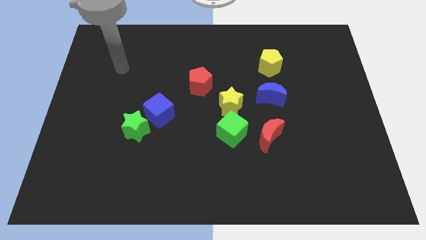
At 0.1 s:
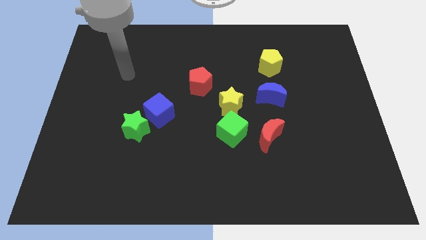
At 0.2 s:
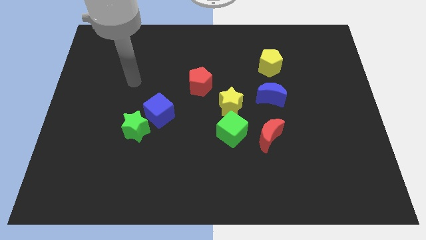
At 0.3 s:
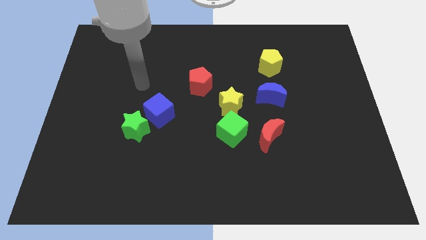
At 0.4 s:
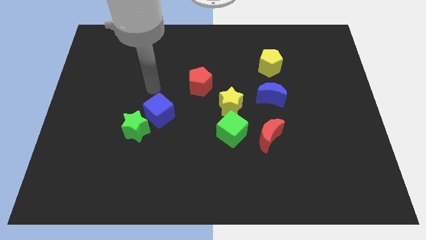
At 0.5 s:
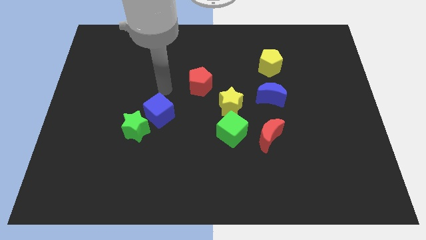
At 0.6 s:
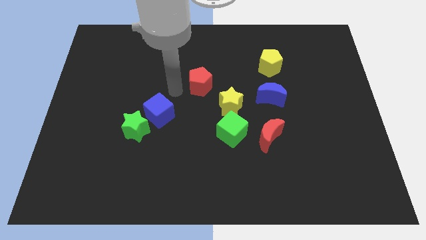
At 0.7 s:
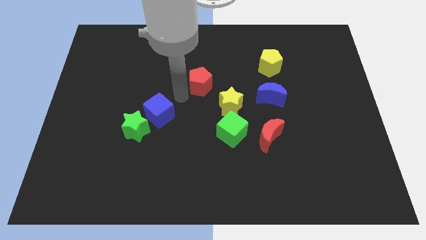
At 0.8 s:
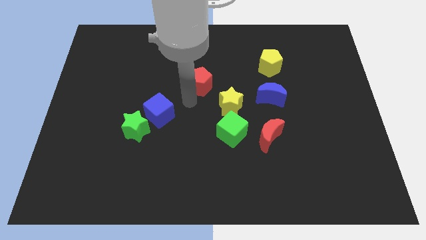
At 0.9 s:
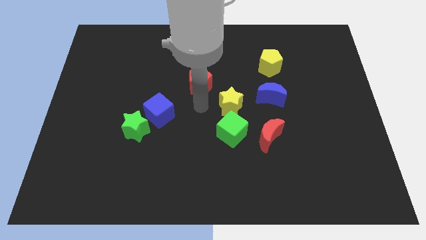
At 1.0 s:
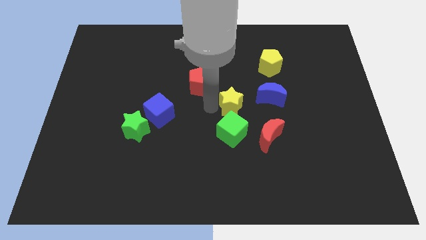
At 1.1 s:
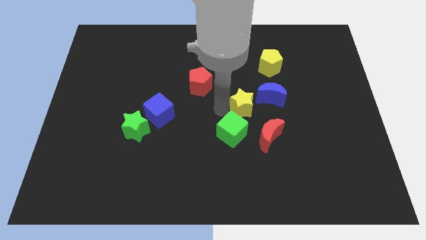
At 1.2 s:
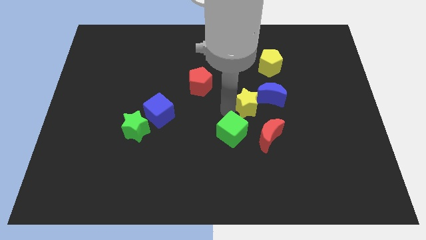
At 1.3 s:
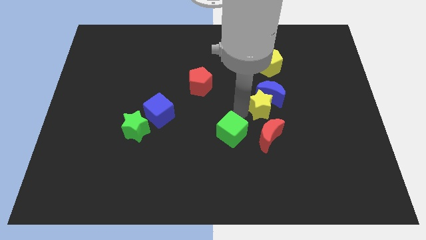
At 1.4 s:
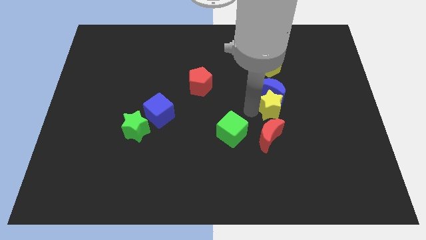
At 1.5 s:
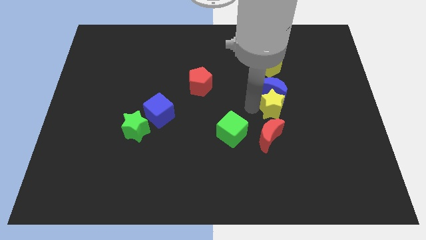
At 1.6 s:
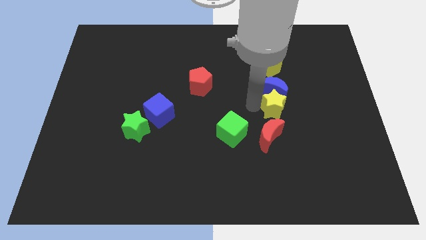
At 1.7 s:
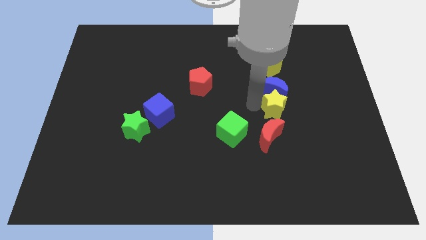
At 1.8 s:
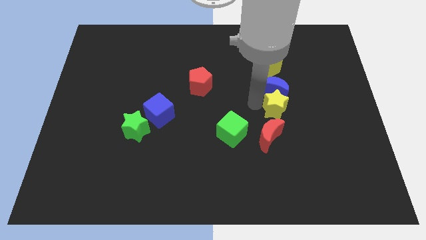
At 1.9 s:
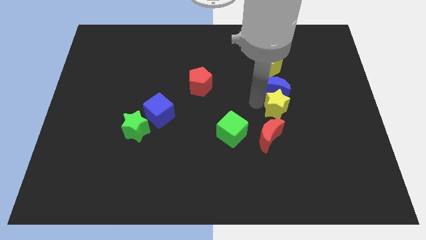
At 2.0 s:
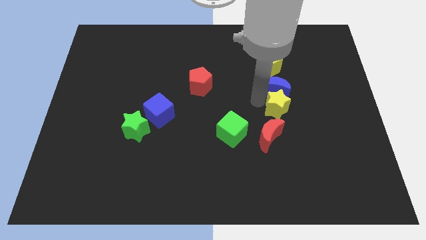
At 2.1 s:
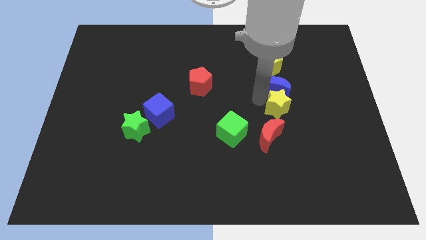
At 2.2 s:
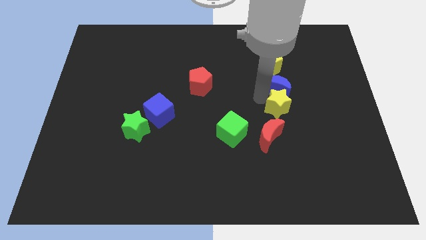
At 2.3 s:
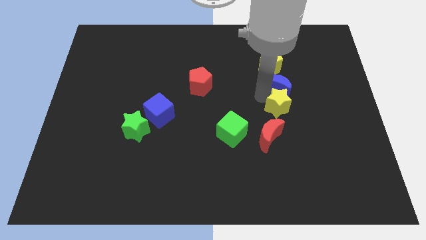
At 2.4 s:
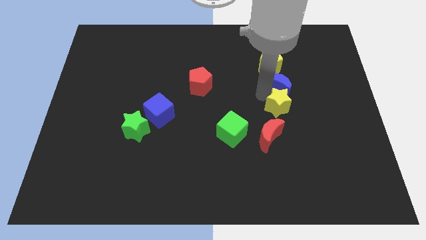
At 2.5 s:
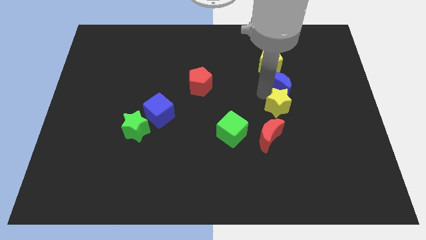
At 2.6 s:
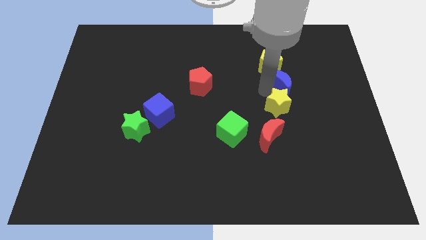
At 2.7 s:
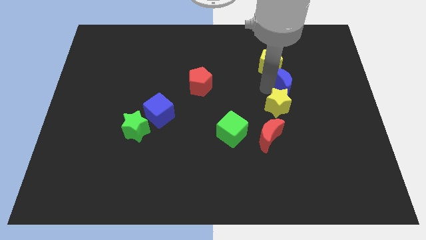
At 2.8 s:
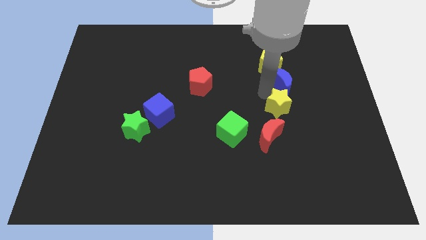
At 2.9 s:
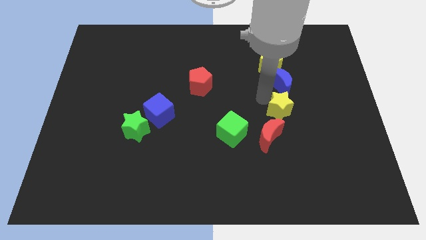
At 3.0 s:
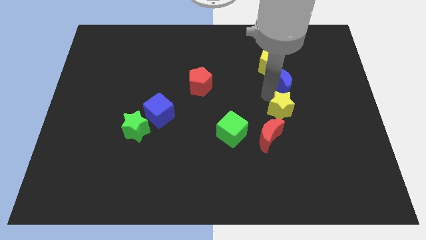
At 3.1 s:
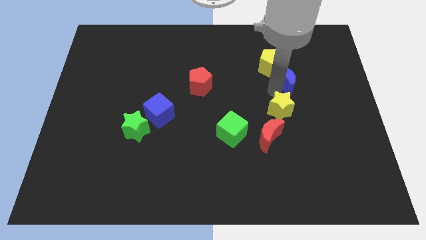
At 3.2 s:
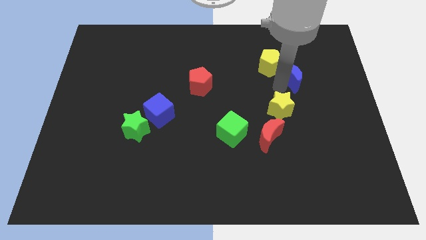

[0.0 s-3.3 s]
slide the blue moon up and right diagonally slightly

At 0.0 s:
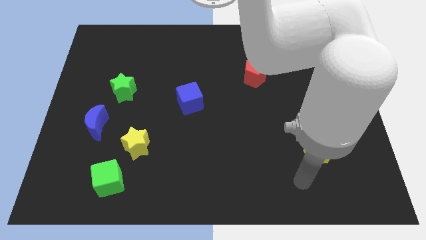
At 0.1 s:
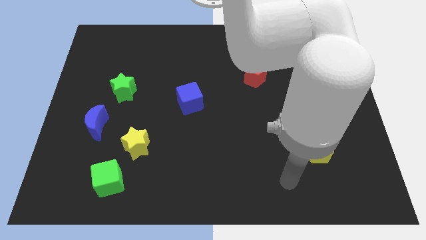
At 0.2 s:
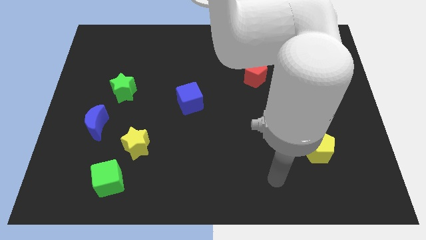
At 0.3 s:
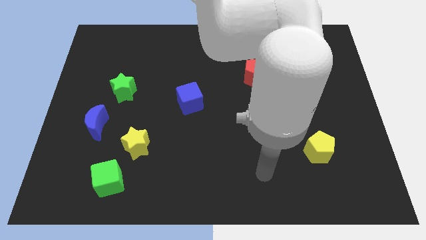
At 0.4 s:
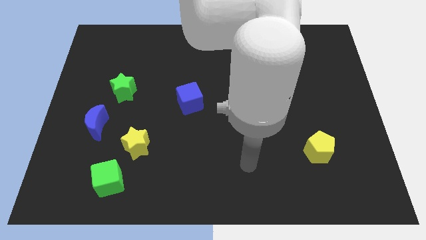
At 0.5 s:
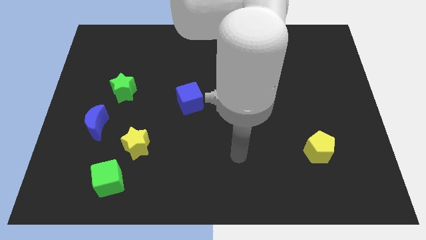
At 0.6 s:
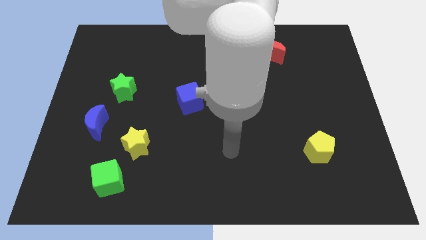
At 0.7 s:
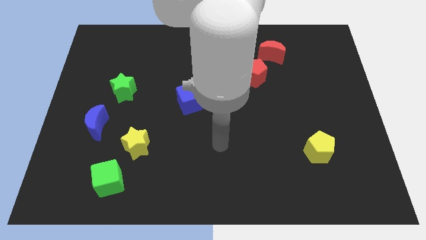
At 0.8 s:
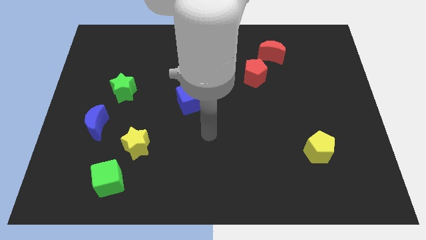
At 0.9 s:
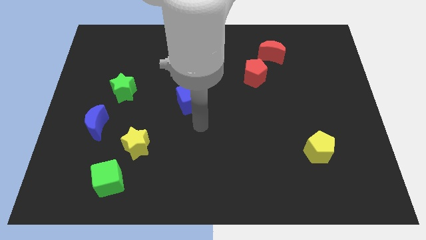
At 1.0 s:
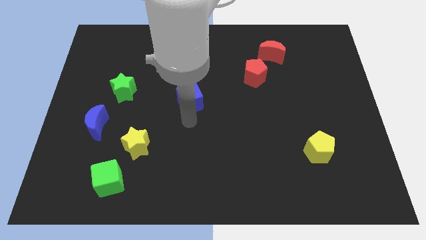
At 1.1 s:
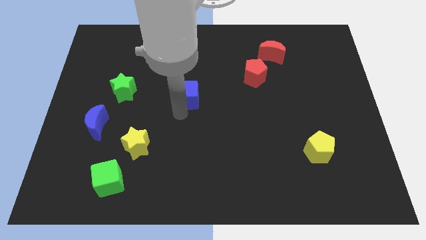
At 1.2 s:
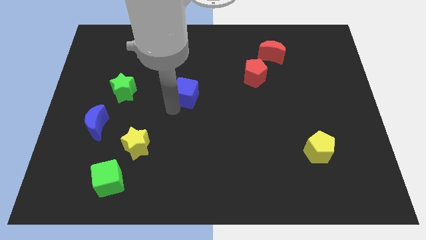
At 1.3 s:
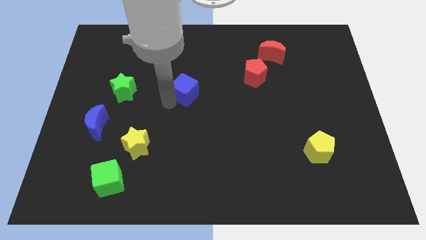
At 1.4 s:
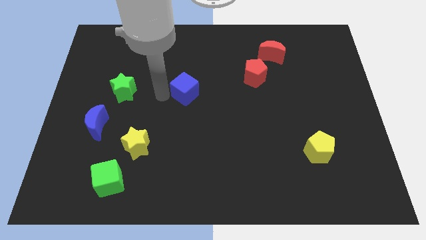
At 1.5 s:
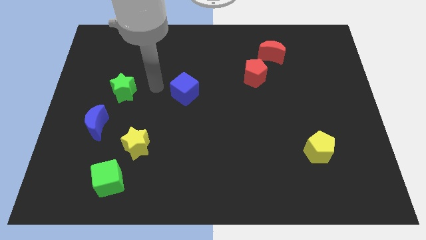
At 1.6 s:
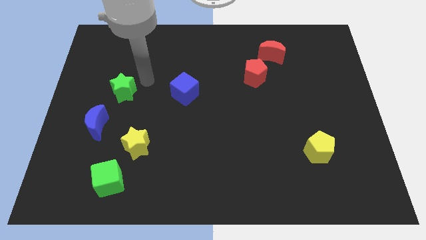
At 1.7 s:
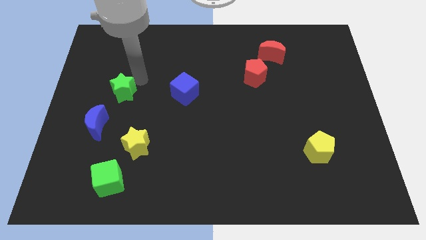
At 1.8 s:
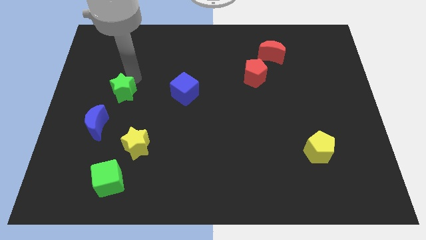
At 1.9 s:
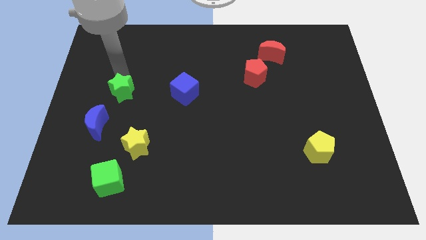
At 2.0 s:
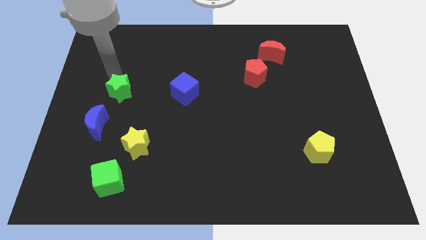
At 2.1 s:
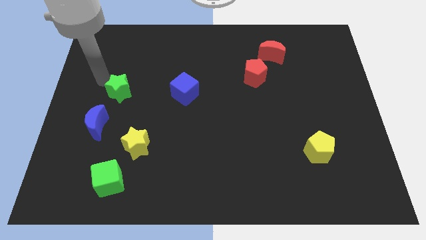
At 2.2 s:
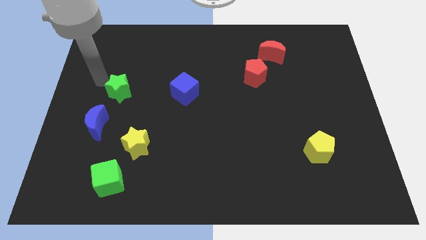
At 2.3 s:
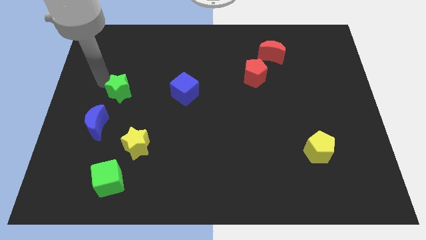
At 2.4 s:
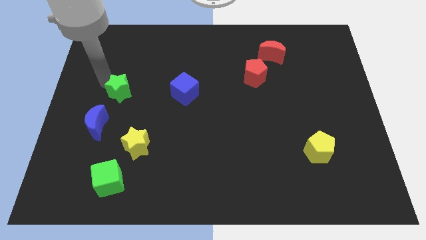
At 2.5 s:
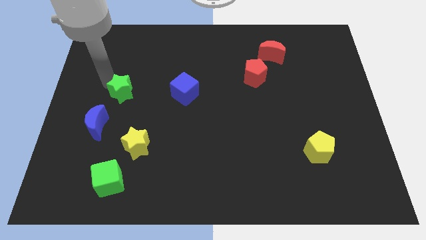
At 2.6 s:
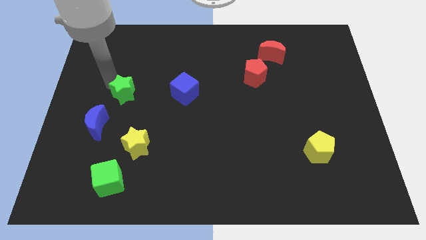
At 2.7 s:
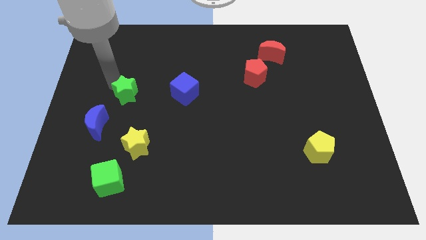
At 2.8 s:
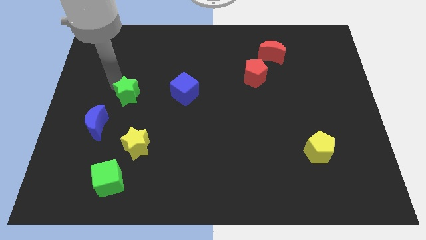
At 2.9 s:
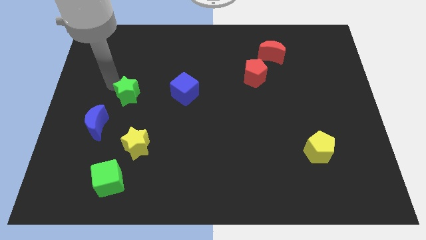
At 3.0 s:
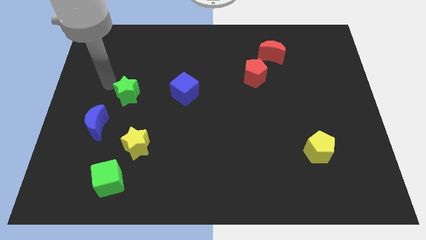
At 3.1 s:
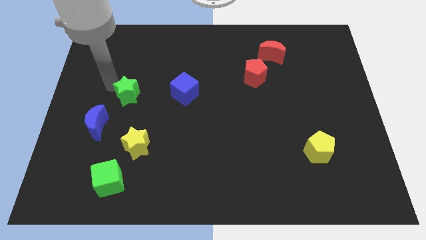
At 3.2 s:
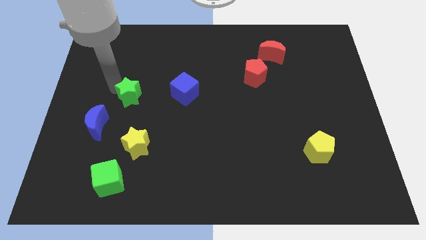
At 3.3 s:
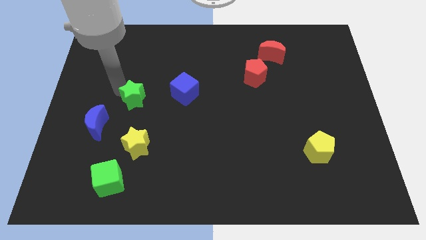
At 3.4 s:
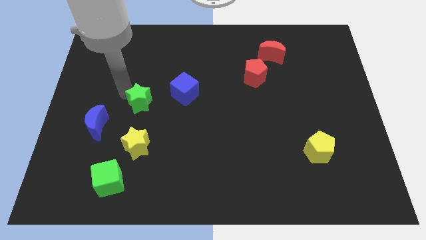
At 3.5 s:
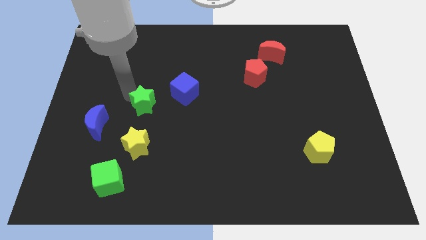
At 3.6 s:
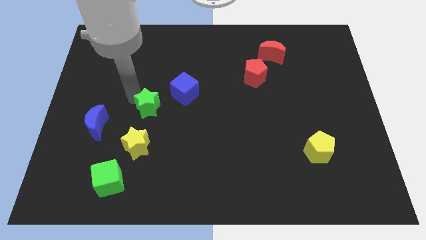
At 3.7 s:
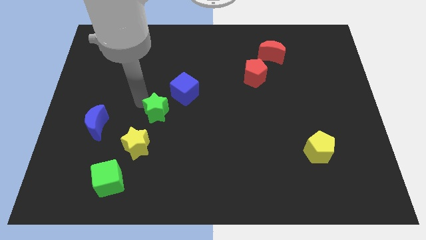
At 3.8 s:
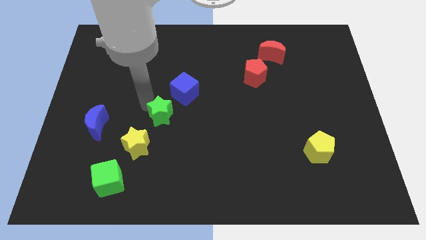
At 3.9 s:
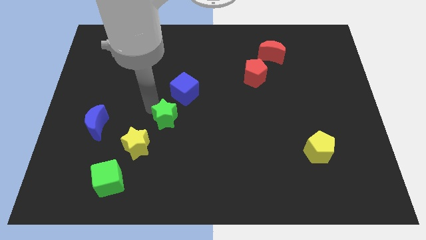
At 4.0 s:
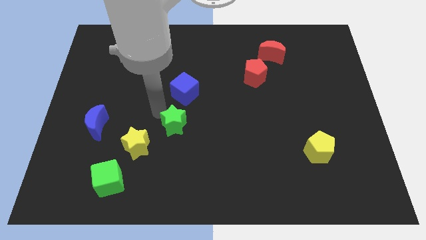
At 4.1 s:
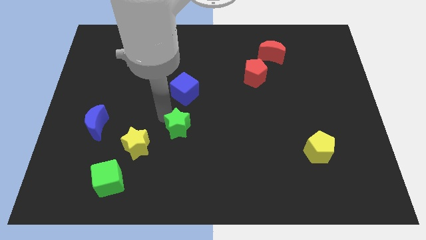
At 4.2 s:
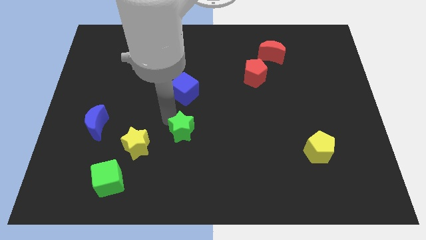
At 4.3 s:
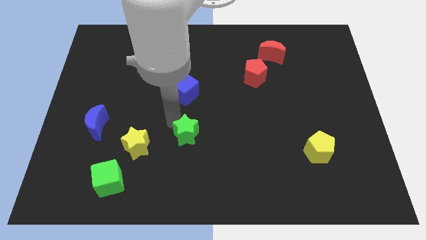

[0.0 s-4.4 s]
slide the green star downwards and then to the right

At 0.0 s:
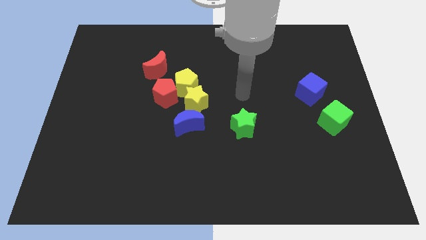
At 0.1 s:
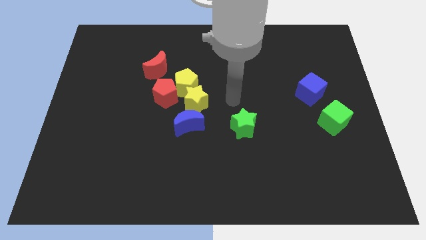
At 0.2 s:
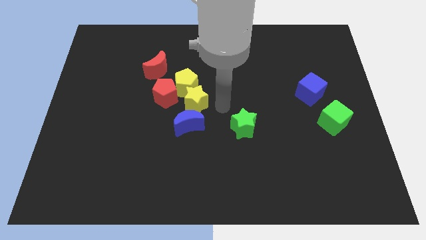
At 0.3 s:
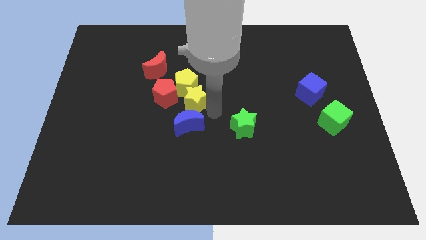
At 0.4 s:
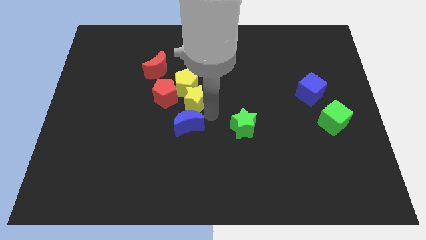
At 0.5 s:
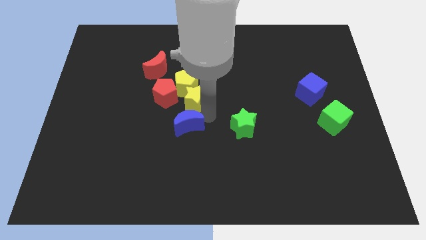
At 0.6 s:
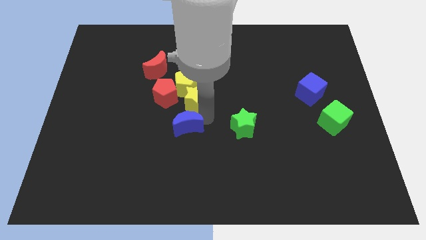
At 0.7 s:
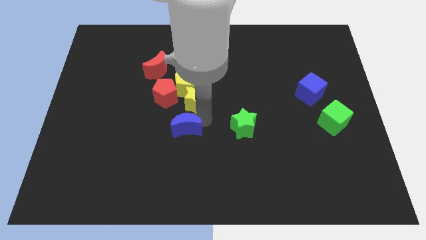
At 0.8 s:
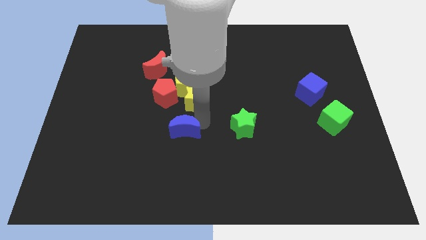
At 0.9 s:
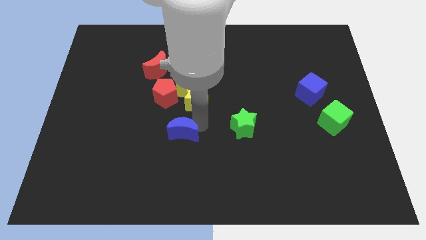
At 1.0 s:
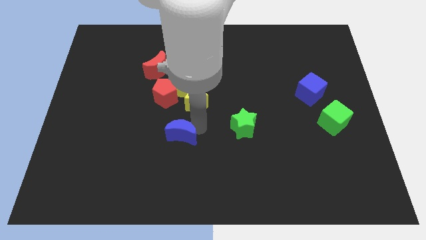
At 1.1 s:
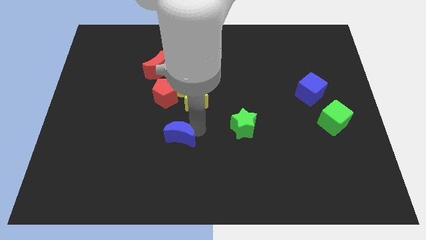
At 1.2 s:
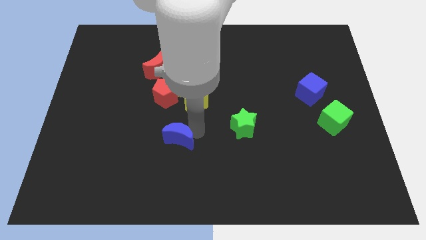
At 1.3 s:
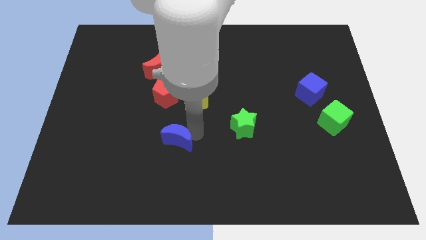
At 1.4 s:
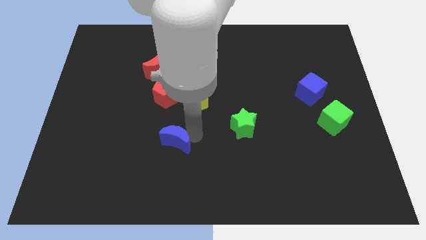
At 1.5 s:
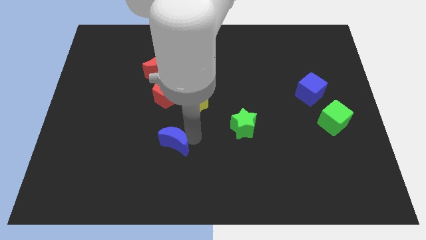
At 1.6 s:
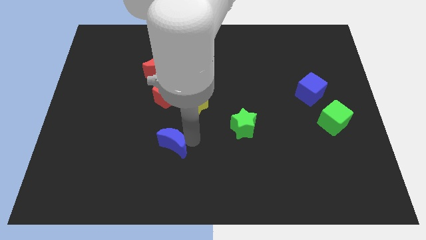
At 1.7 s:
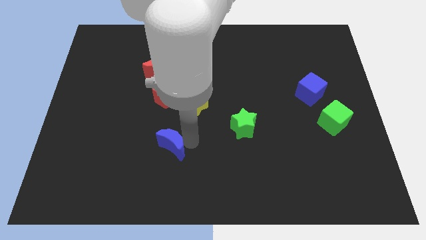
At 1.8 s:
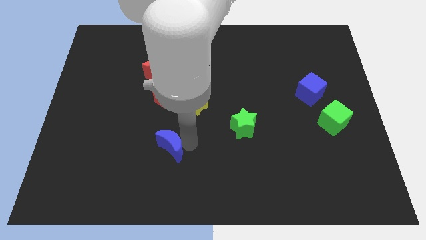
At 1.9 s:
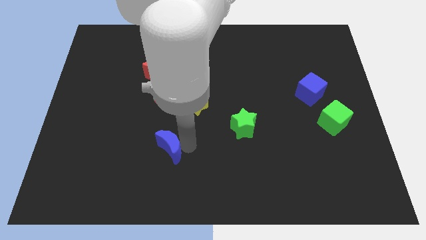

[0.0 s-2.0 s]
slightly slide the blue moon downwards and then to the left
